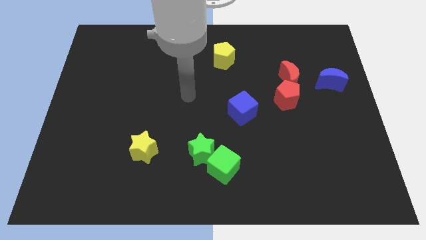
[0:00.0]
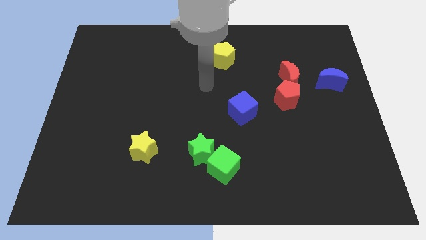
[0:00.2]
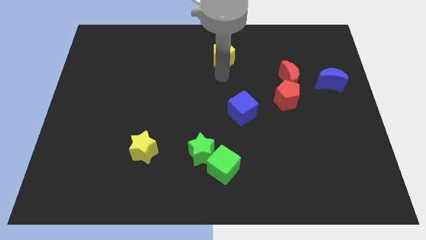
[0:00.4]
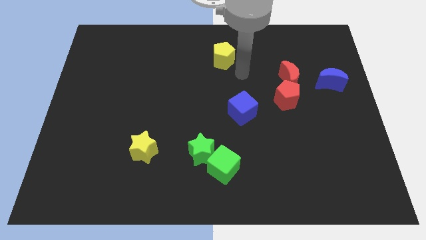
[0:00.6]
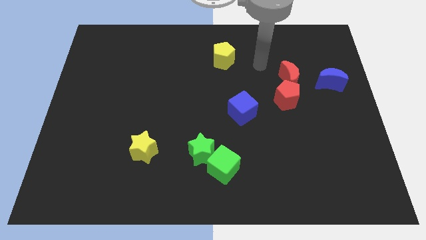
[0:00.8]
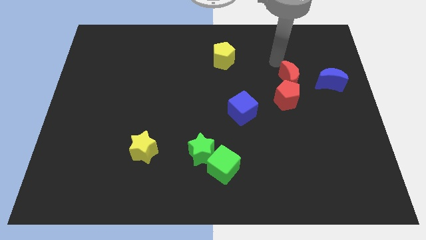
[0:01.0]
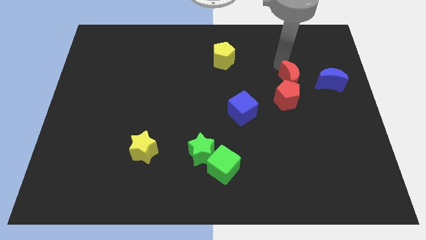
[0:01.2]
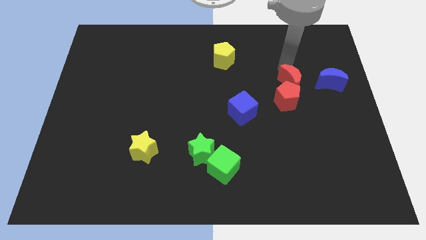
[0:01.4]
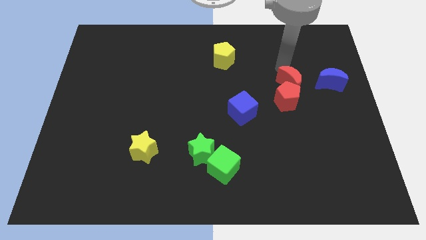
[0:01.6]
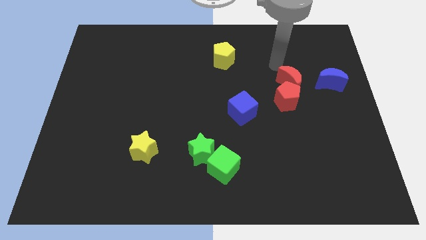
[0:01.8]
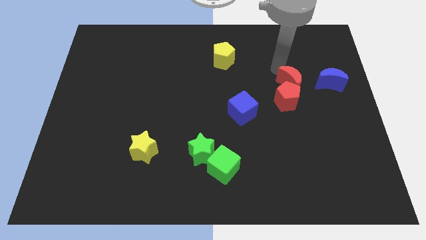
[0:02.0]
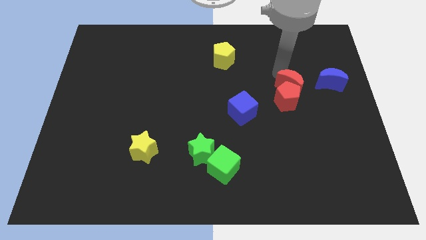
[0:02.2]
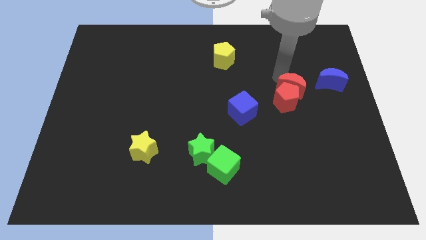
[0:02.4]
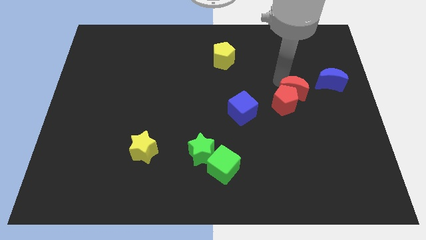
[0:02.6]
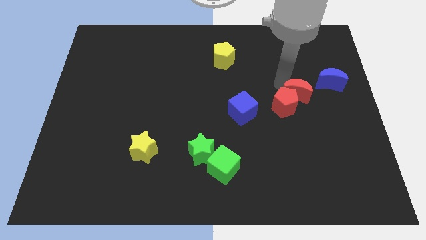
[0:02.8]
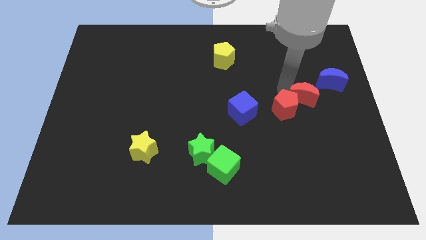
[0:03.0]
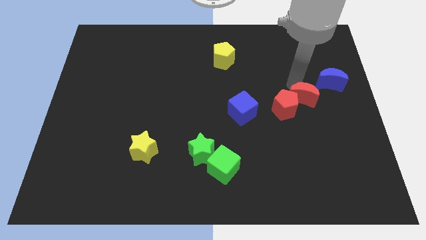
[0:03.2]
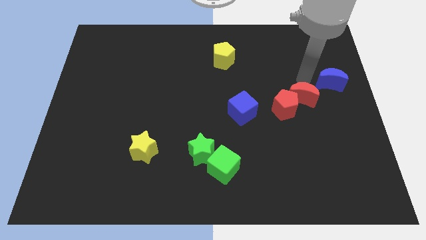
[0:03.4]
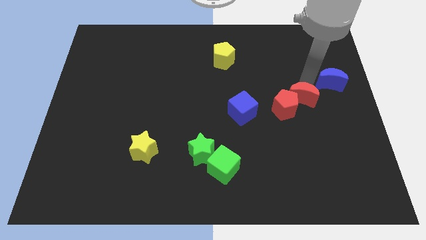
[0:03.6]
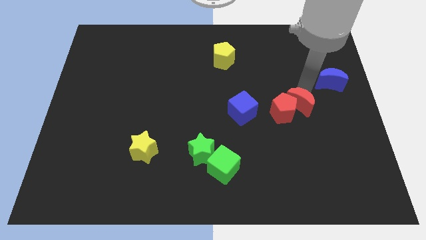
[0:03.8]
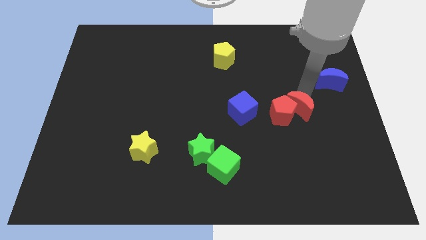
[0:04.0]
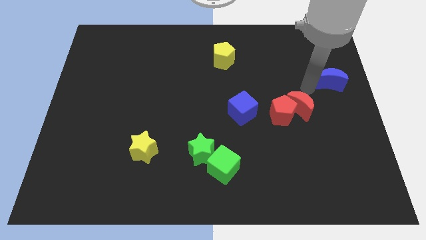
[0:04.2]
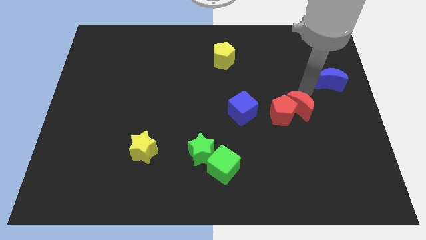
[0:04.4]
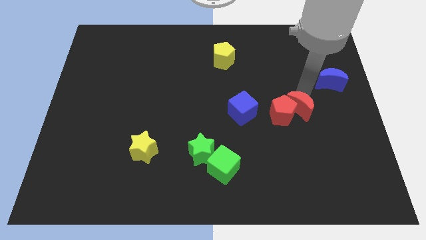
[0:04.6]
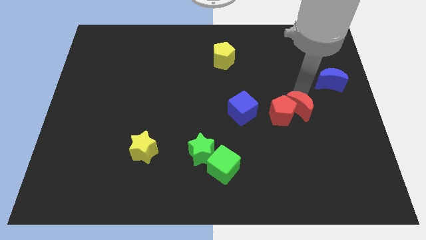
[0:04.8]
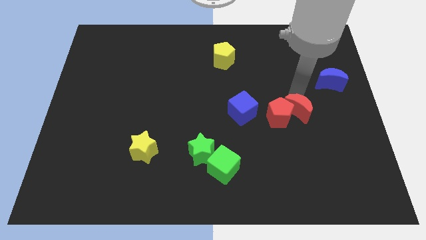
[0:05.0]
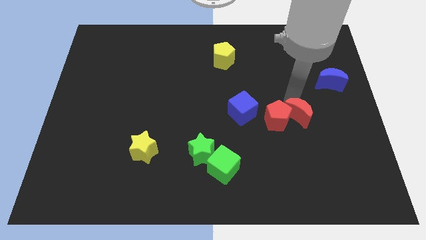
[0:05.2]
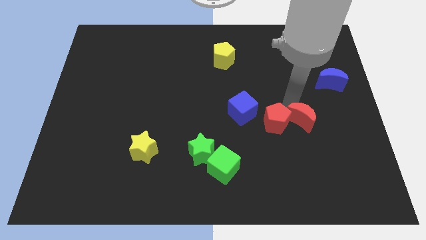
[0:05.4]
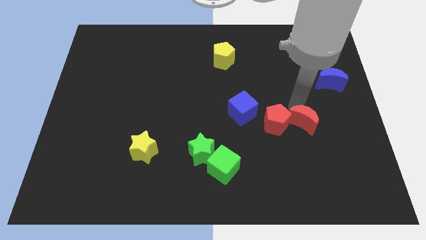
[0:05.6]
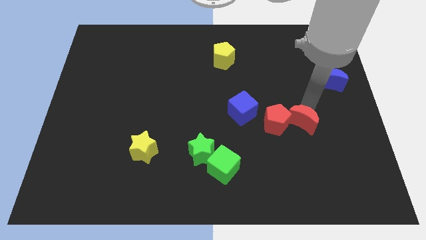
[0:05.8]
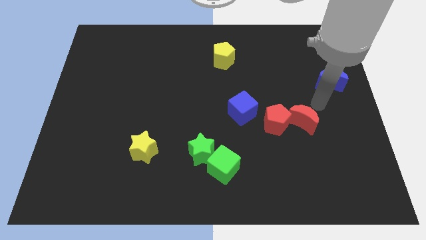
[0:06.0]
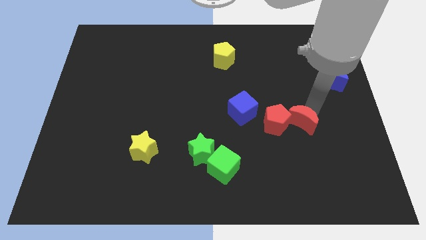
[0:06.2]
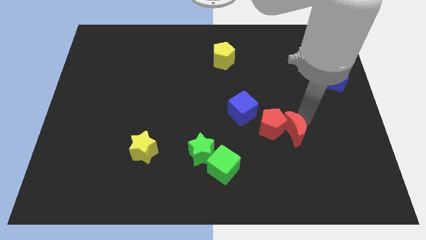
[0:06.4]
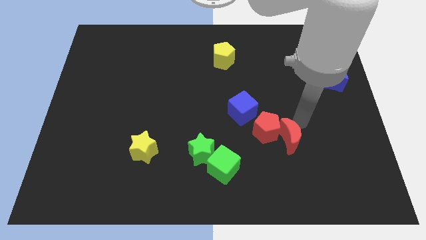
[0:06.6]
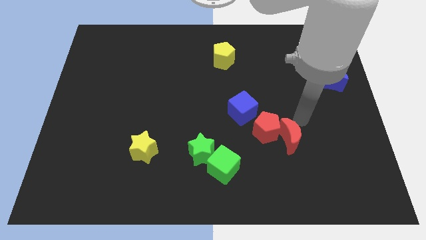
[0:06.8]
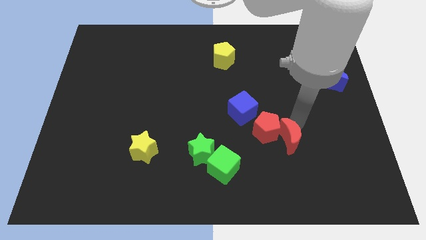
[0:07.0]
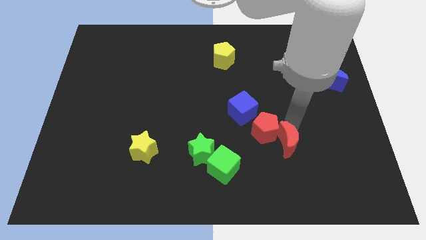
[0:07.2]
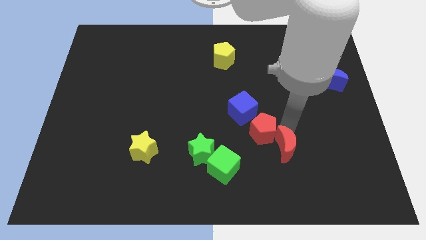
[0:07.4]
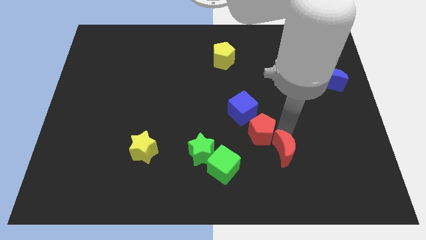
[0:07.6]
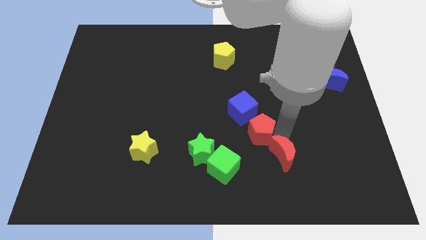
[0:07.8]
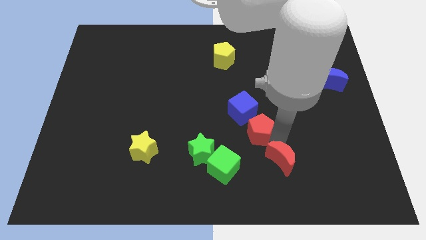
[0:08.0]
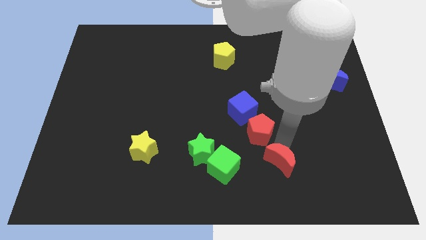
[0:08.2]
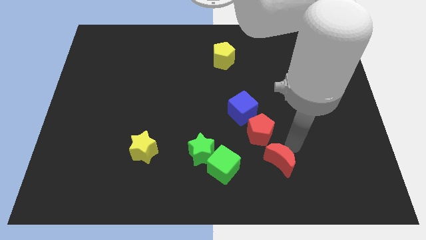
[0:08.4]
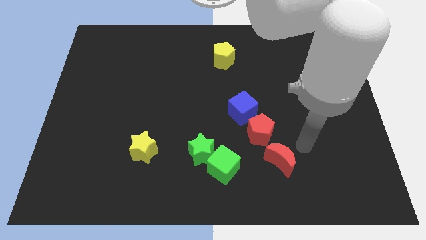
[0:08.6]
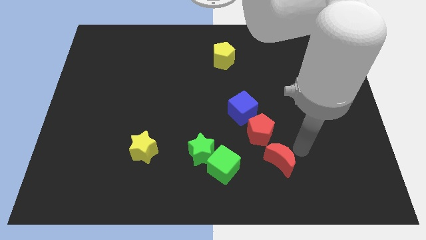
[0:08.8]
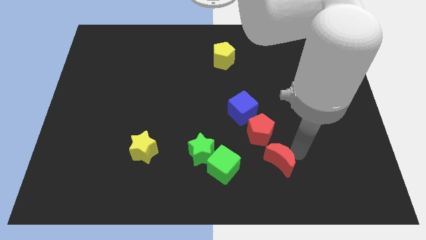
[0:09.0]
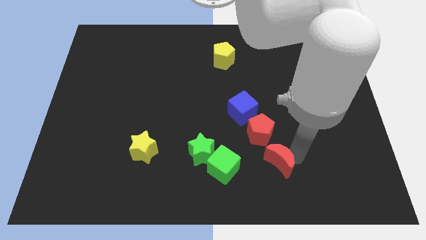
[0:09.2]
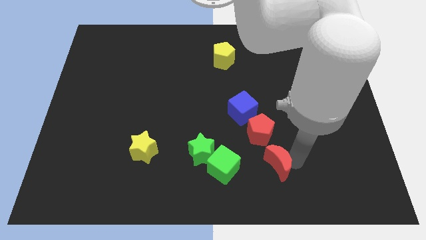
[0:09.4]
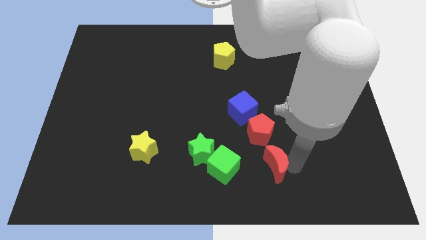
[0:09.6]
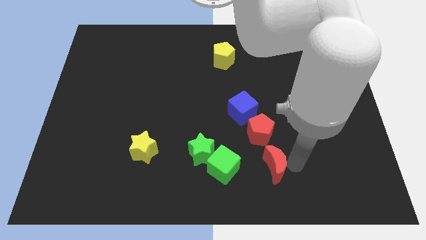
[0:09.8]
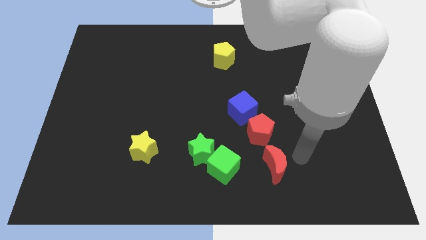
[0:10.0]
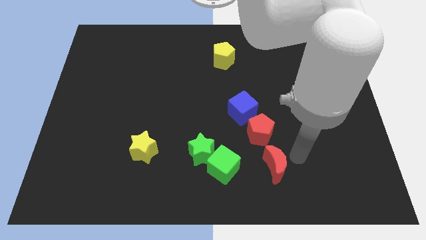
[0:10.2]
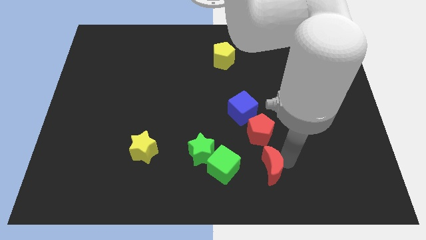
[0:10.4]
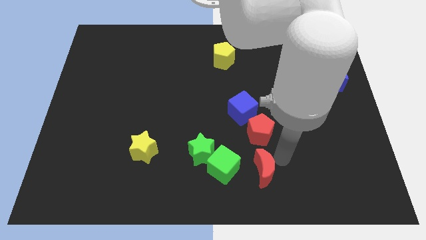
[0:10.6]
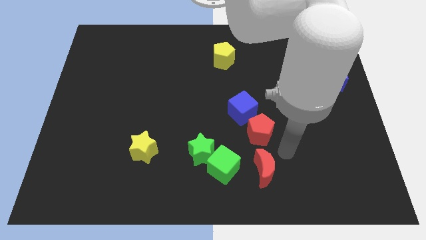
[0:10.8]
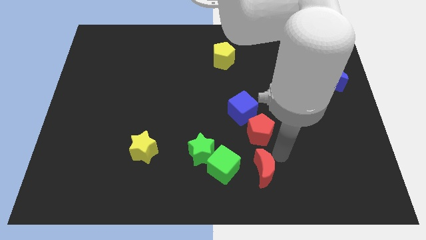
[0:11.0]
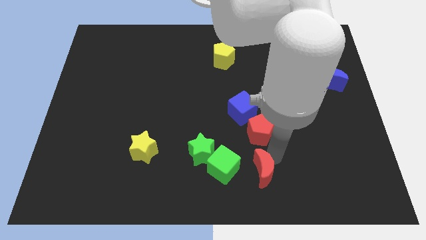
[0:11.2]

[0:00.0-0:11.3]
move the red moon to the bottom

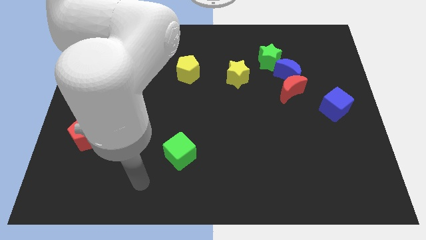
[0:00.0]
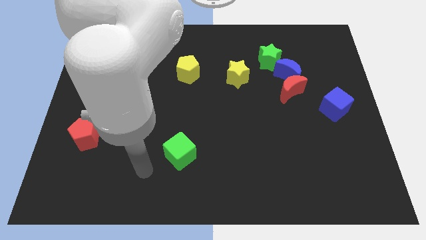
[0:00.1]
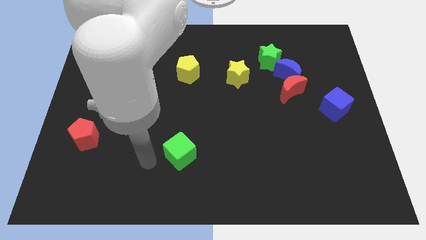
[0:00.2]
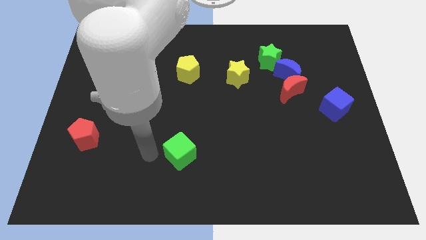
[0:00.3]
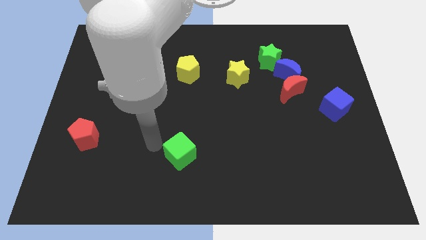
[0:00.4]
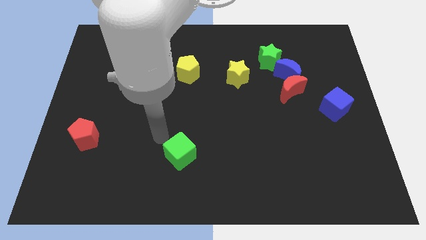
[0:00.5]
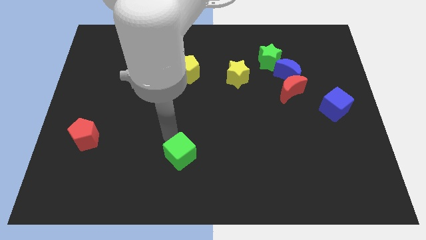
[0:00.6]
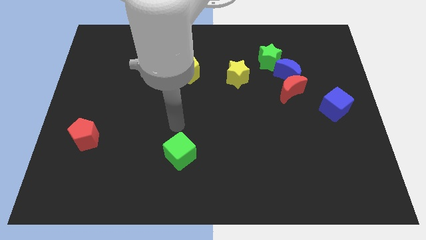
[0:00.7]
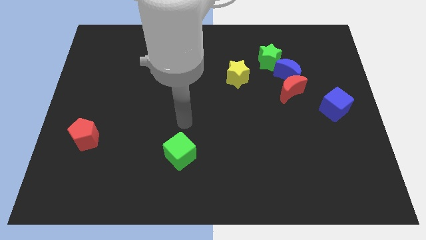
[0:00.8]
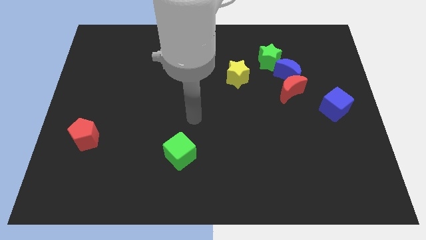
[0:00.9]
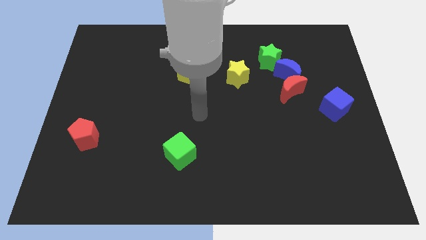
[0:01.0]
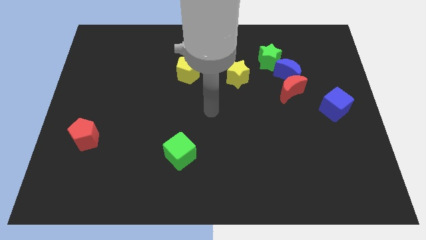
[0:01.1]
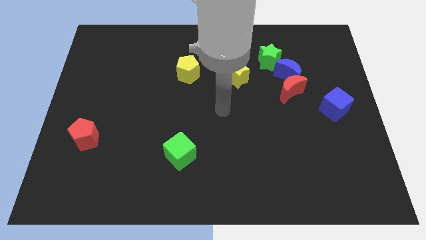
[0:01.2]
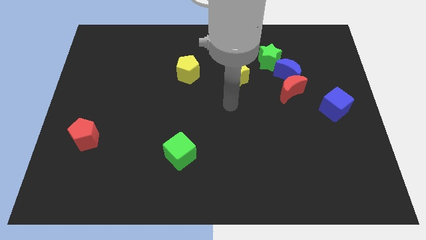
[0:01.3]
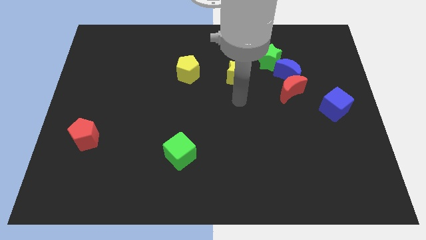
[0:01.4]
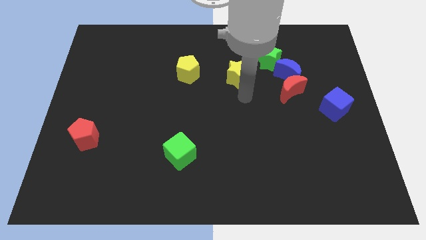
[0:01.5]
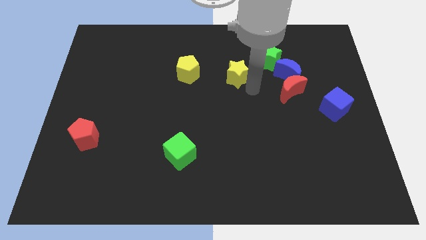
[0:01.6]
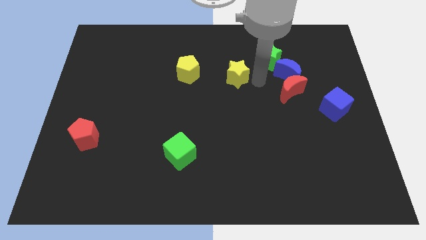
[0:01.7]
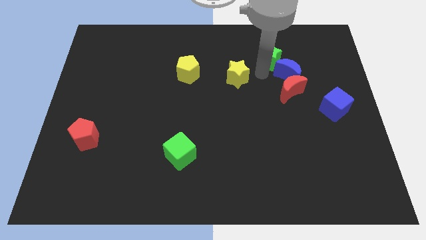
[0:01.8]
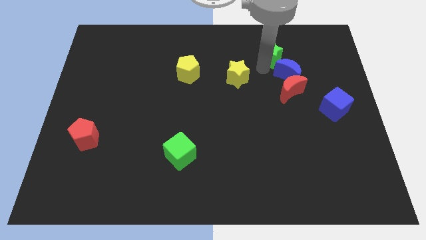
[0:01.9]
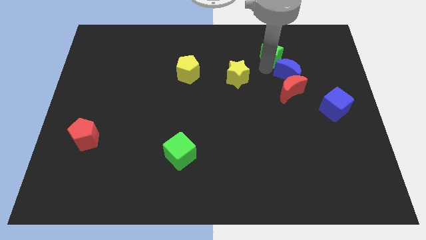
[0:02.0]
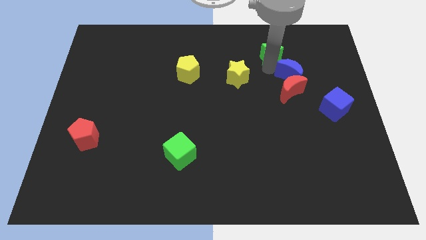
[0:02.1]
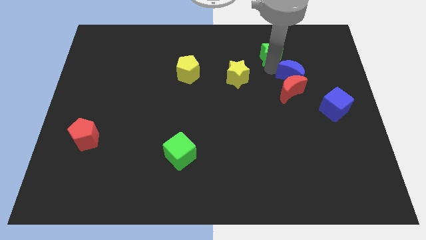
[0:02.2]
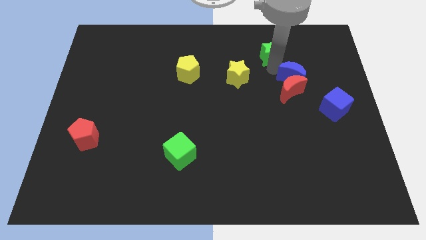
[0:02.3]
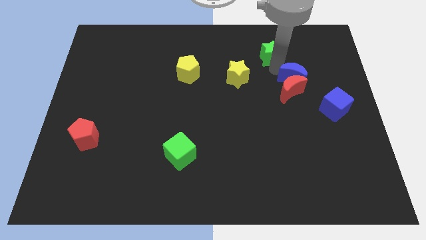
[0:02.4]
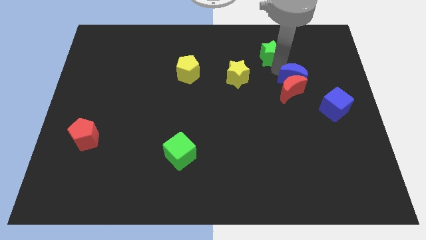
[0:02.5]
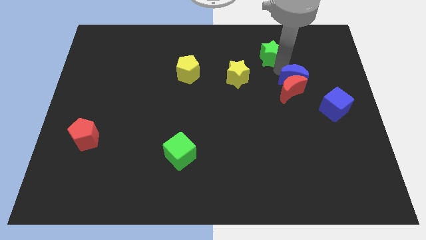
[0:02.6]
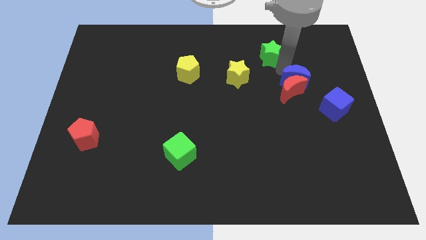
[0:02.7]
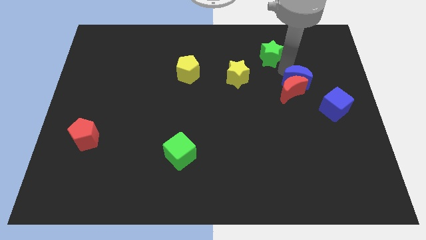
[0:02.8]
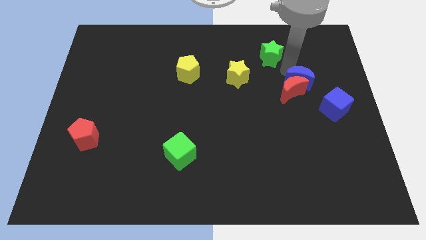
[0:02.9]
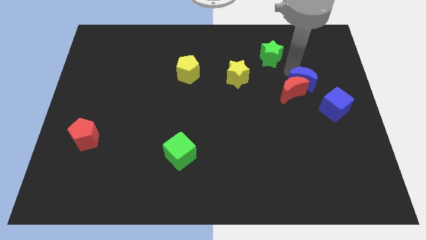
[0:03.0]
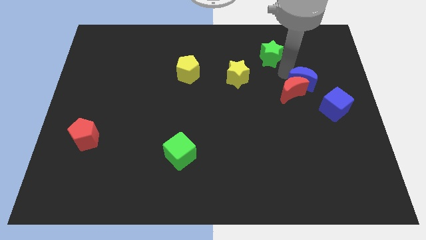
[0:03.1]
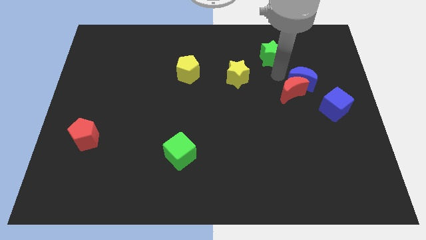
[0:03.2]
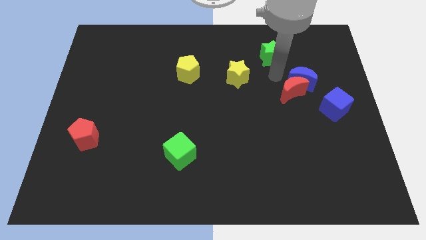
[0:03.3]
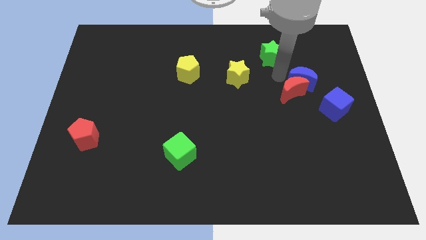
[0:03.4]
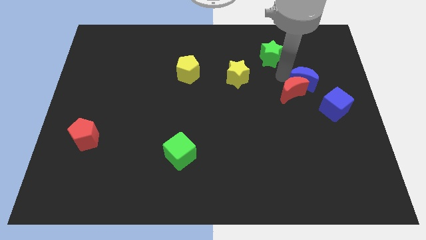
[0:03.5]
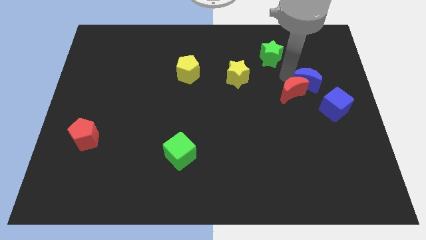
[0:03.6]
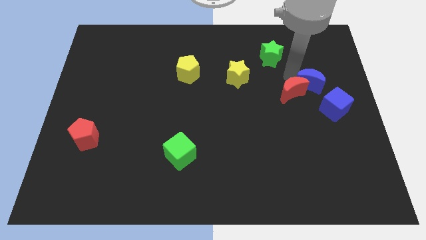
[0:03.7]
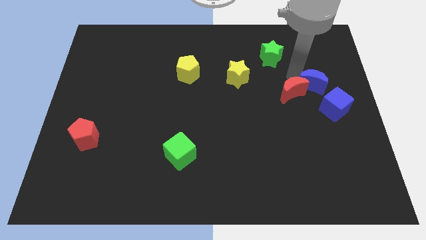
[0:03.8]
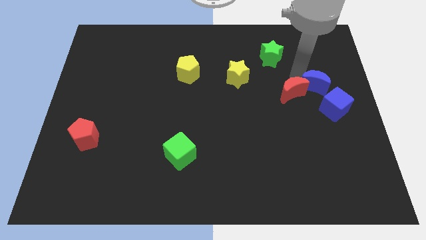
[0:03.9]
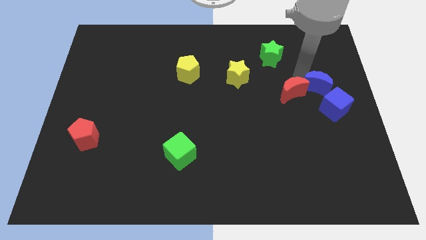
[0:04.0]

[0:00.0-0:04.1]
slide the blue moon to the right side of the board
